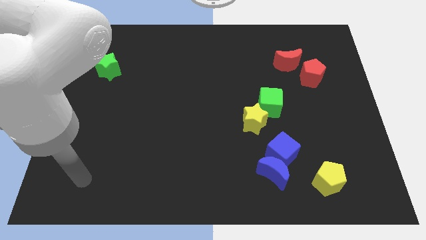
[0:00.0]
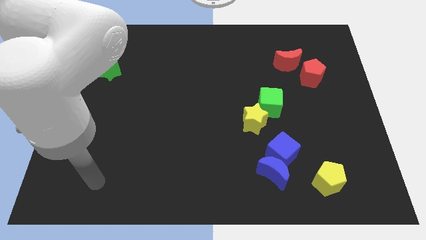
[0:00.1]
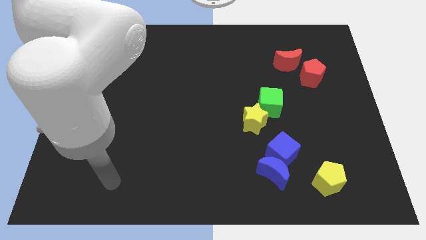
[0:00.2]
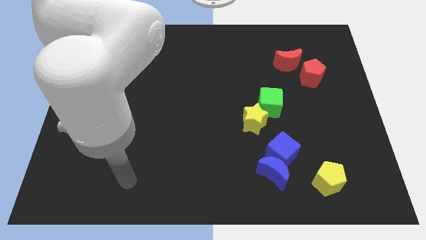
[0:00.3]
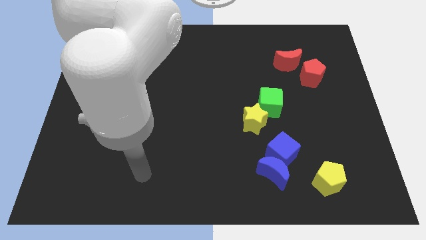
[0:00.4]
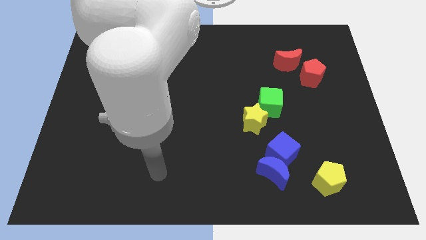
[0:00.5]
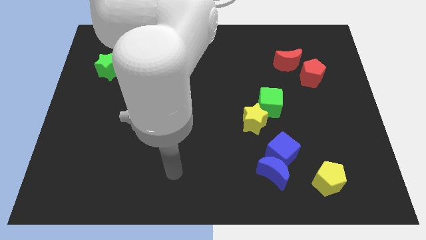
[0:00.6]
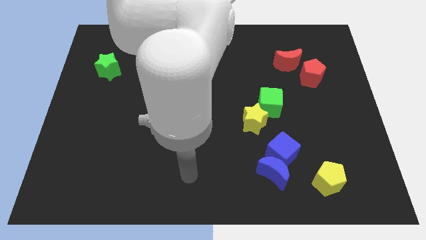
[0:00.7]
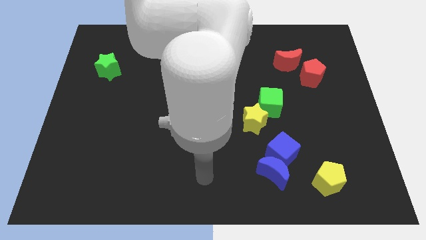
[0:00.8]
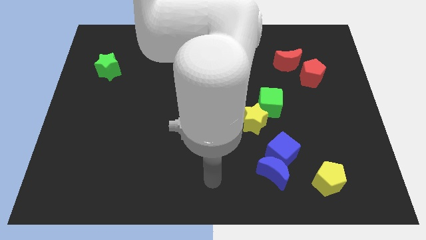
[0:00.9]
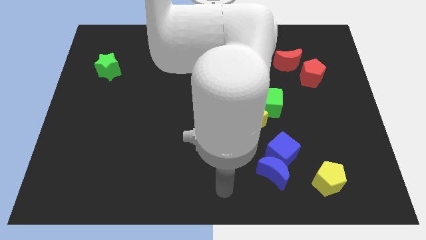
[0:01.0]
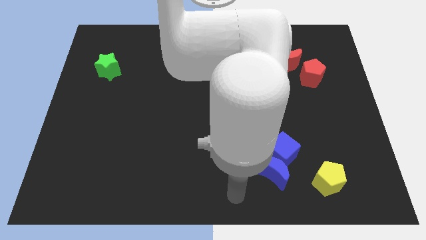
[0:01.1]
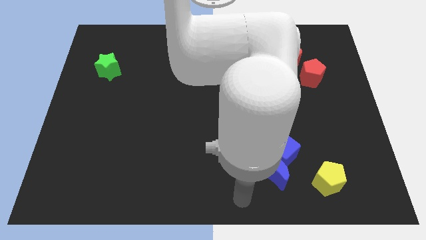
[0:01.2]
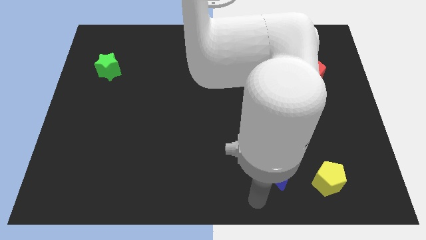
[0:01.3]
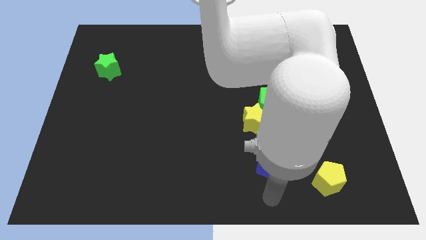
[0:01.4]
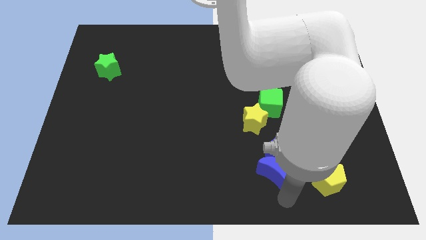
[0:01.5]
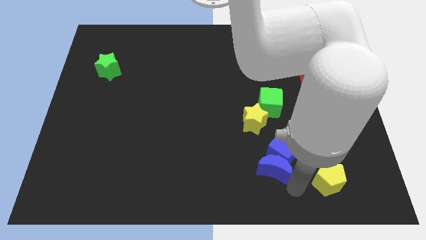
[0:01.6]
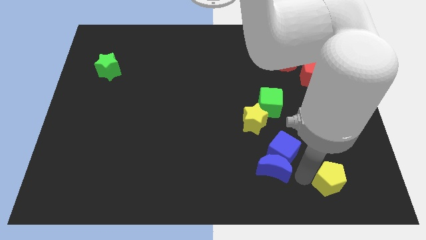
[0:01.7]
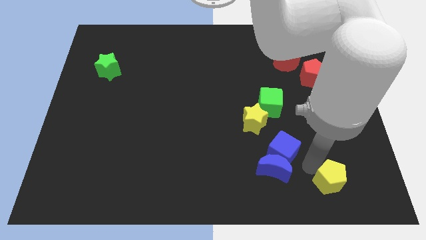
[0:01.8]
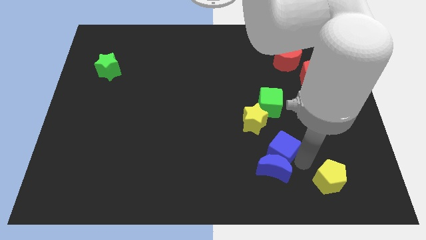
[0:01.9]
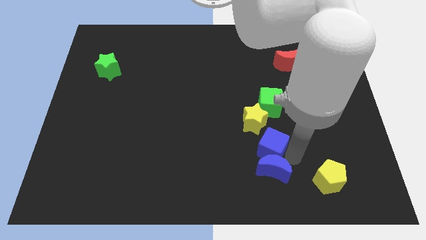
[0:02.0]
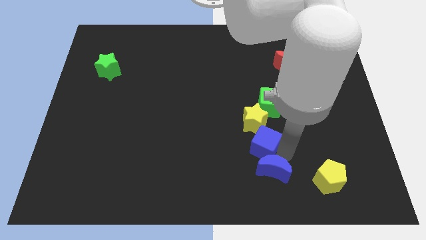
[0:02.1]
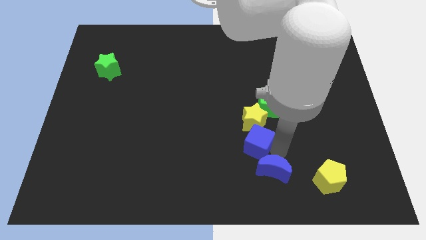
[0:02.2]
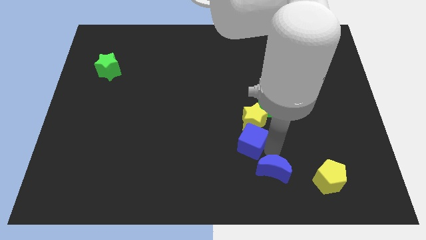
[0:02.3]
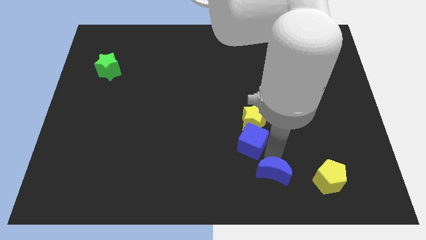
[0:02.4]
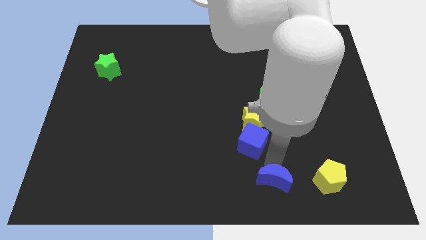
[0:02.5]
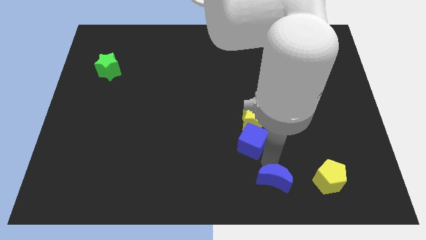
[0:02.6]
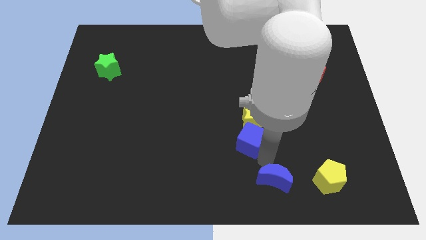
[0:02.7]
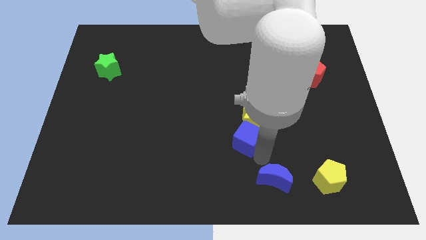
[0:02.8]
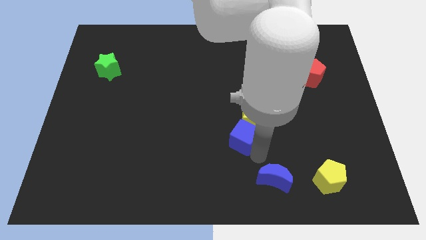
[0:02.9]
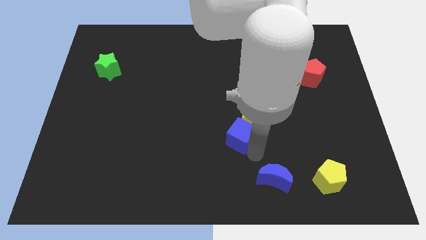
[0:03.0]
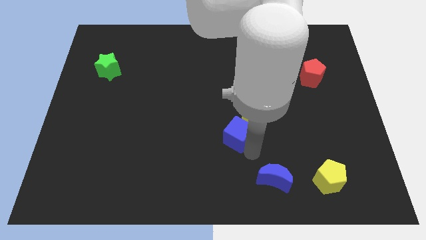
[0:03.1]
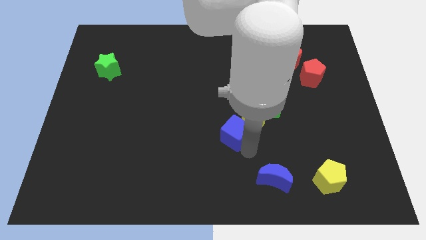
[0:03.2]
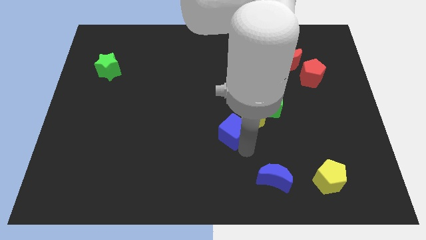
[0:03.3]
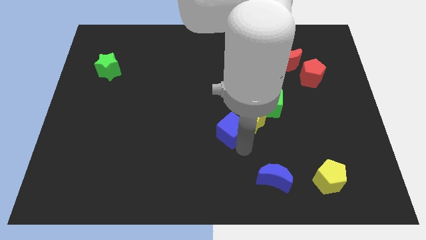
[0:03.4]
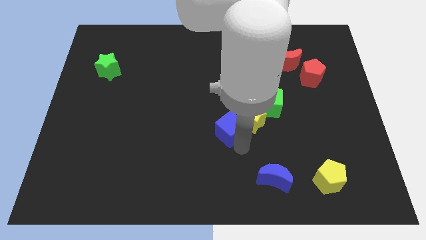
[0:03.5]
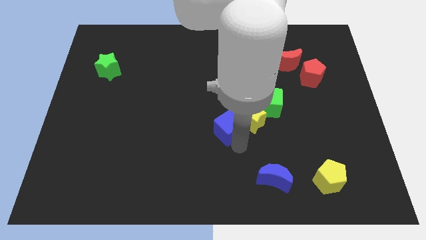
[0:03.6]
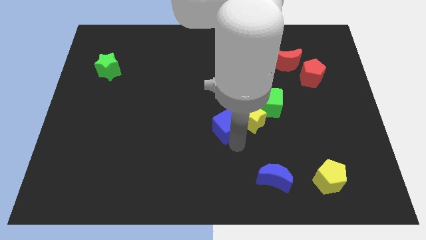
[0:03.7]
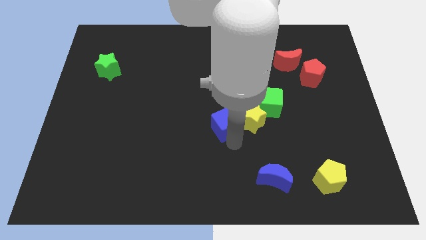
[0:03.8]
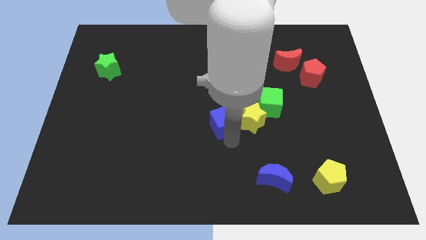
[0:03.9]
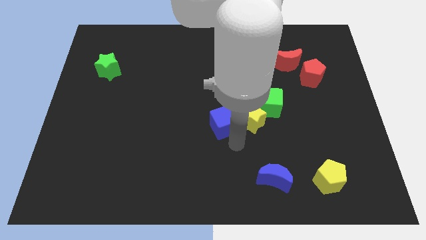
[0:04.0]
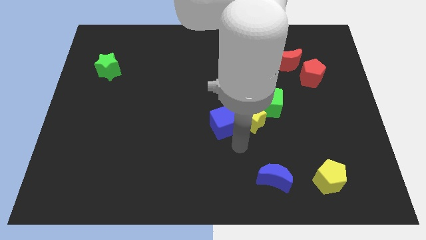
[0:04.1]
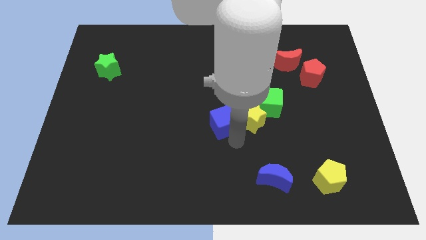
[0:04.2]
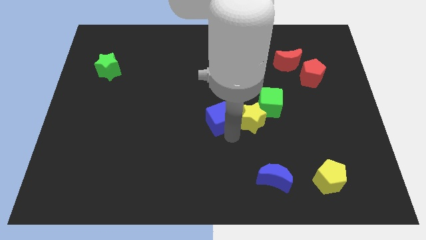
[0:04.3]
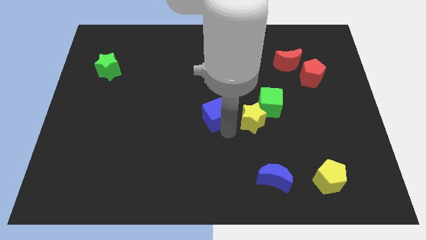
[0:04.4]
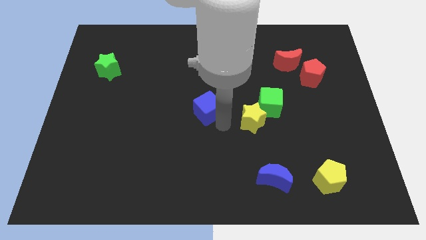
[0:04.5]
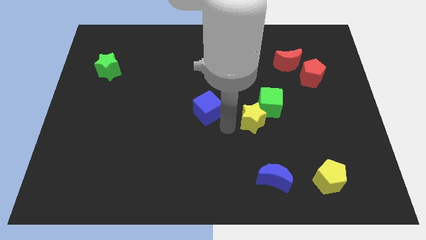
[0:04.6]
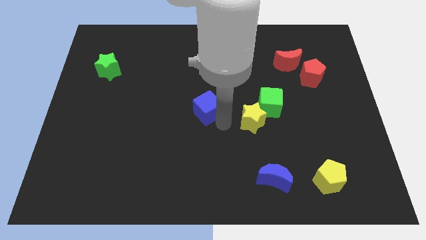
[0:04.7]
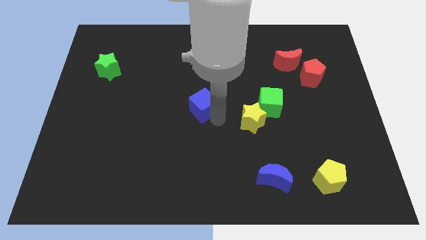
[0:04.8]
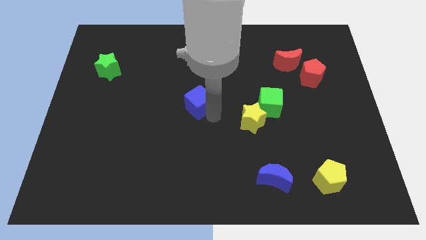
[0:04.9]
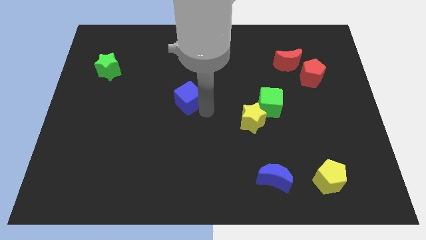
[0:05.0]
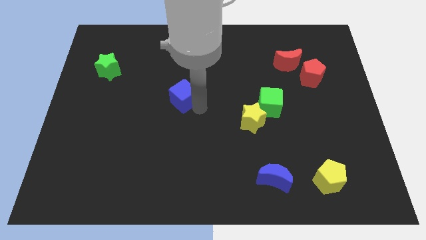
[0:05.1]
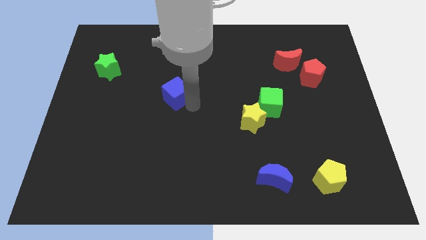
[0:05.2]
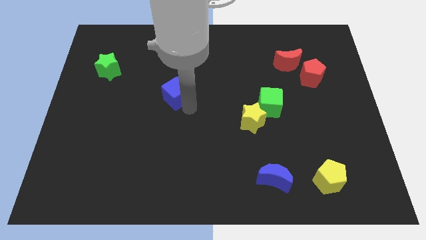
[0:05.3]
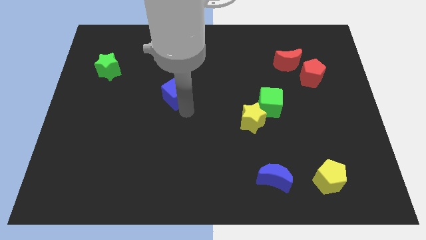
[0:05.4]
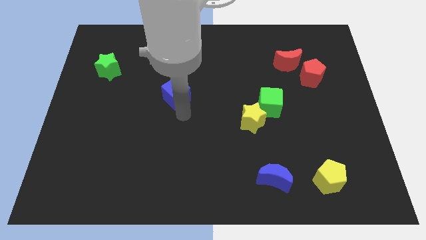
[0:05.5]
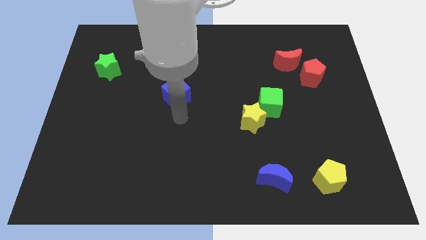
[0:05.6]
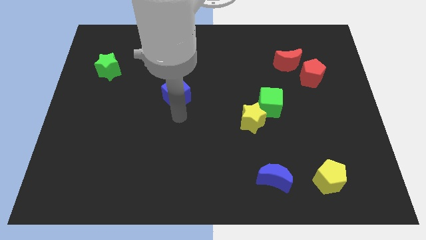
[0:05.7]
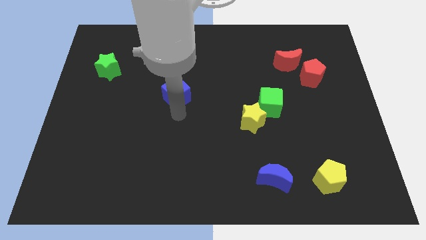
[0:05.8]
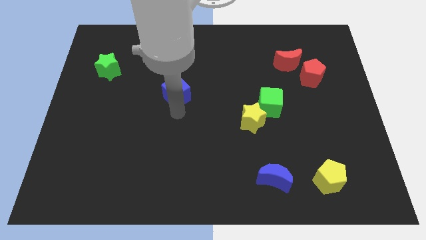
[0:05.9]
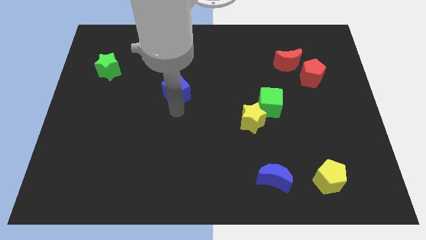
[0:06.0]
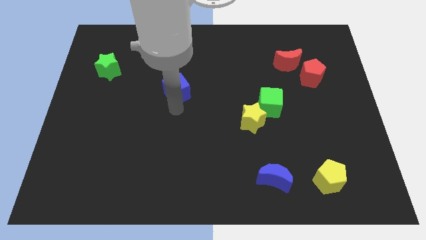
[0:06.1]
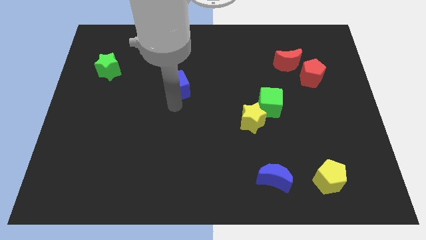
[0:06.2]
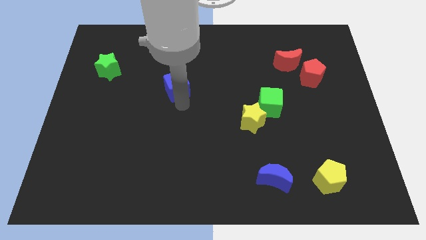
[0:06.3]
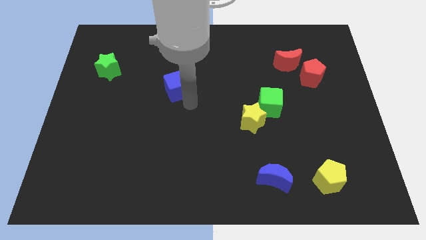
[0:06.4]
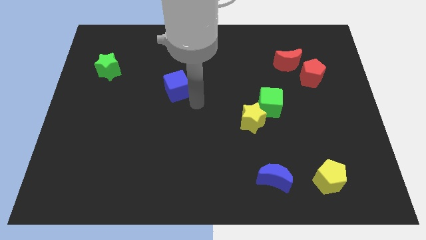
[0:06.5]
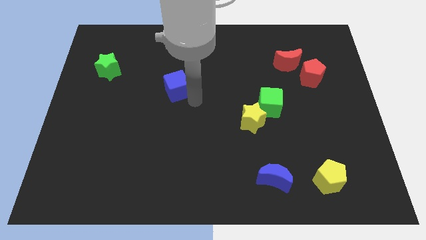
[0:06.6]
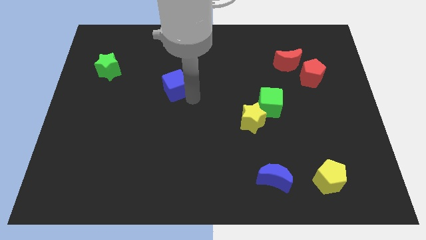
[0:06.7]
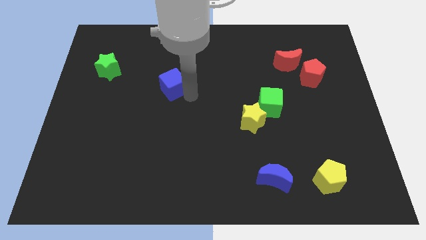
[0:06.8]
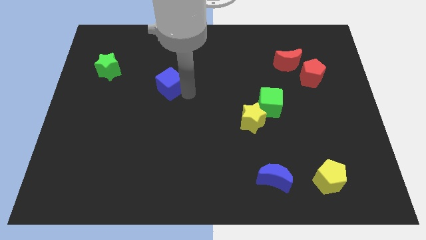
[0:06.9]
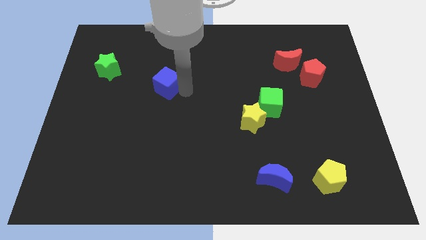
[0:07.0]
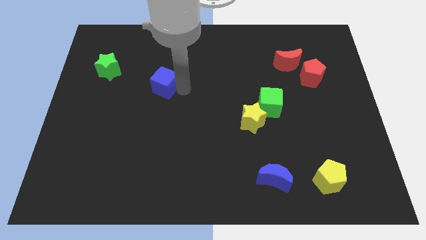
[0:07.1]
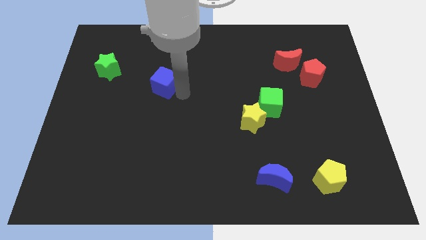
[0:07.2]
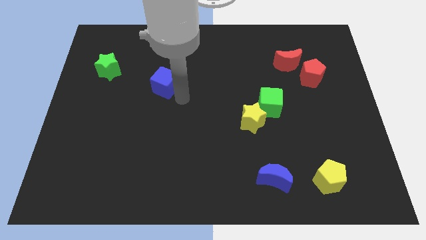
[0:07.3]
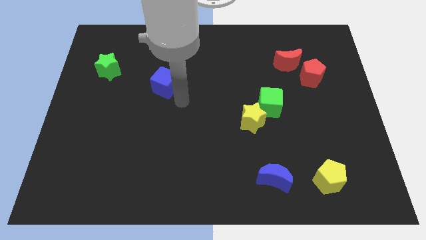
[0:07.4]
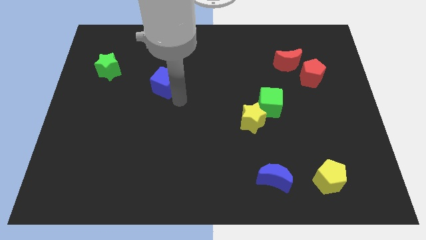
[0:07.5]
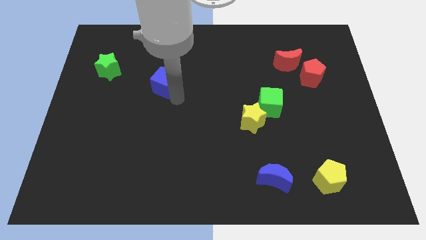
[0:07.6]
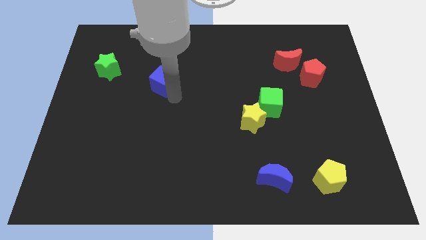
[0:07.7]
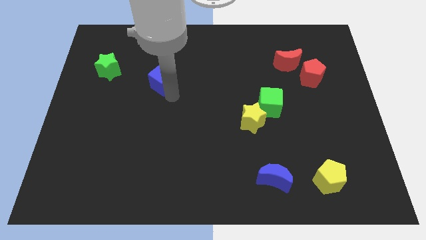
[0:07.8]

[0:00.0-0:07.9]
push the blue cube right of the green star

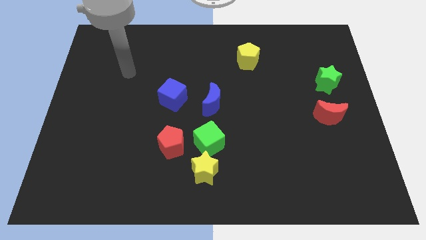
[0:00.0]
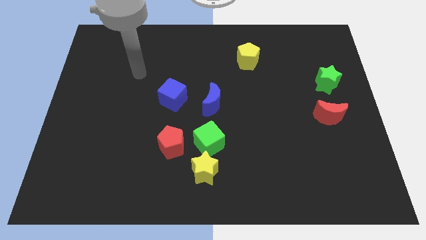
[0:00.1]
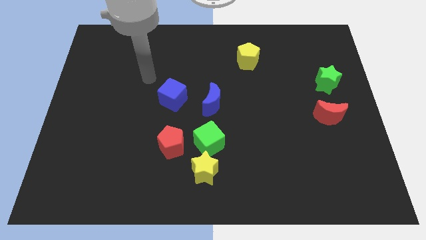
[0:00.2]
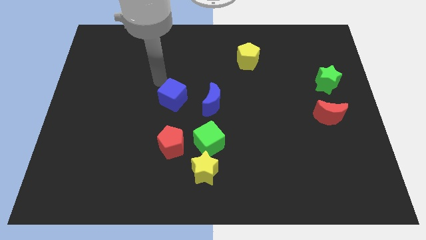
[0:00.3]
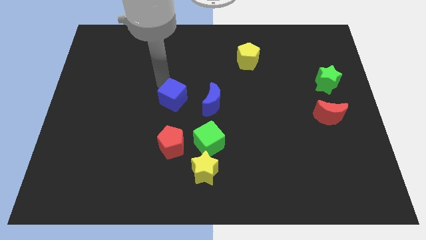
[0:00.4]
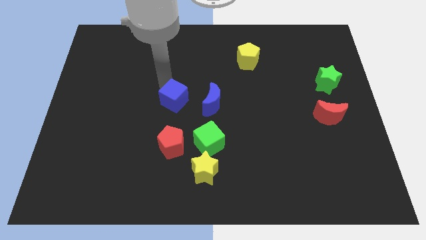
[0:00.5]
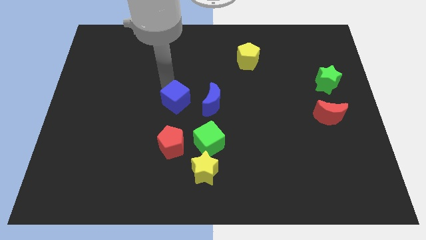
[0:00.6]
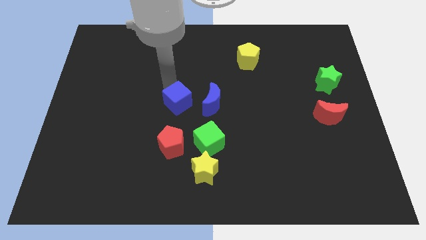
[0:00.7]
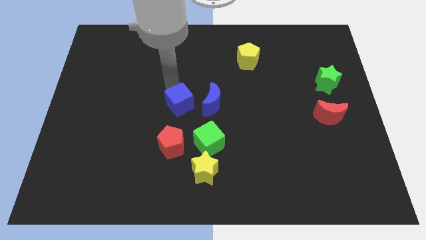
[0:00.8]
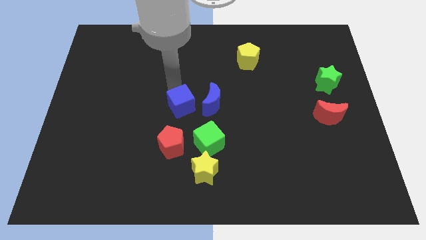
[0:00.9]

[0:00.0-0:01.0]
move the blue cube to the bottom left side of the blue moon

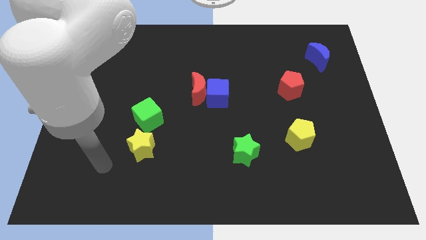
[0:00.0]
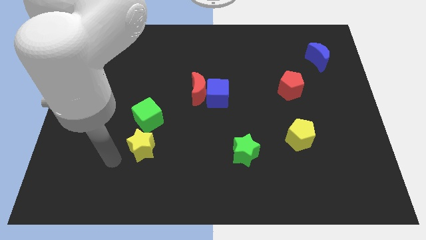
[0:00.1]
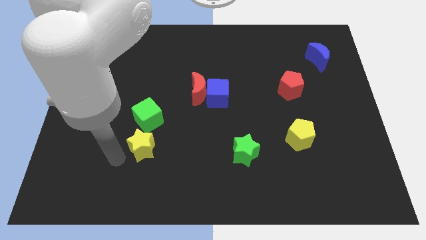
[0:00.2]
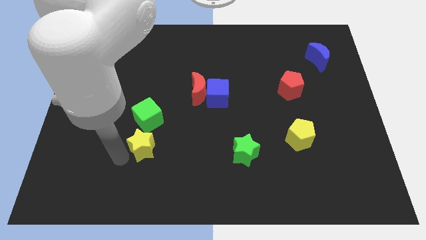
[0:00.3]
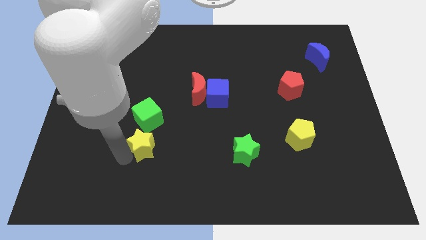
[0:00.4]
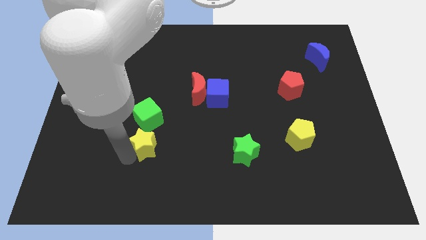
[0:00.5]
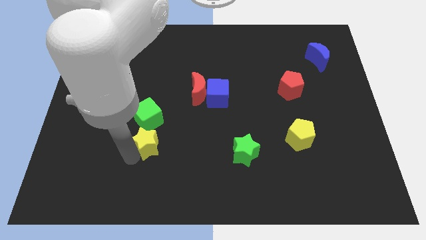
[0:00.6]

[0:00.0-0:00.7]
move the yellow star to the bottom right of the green cube
